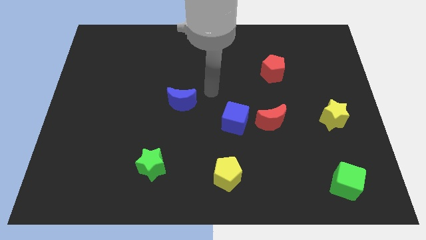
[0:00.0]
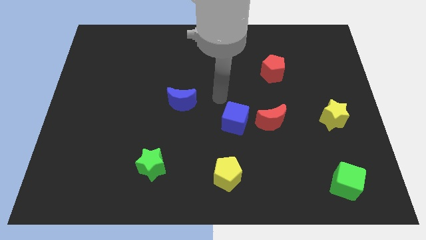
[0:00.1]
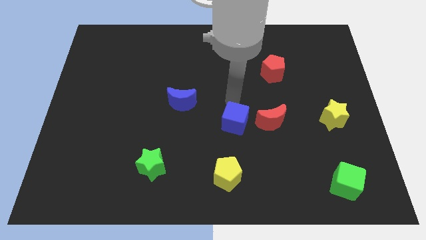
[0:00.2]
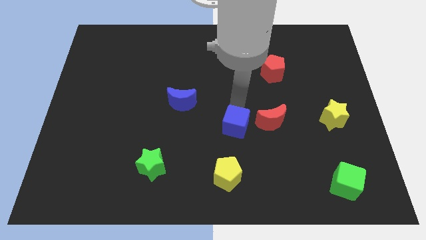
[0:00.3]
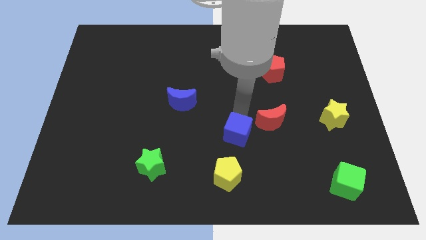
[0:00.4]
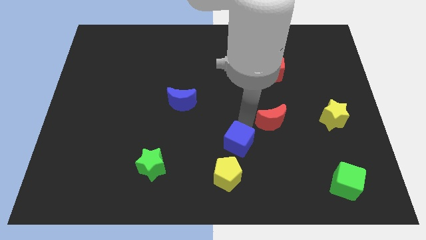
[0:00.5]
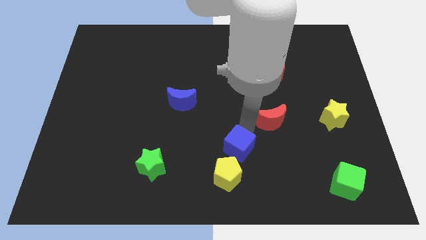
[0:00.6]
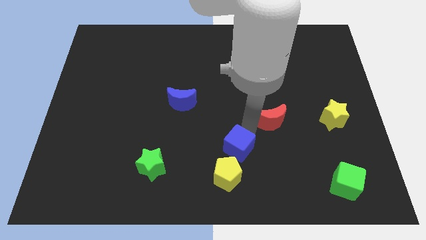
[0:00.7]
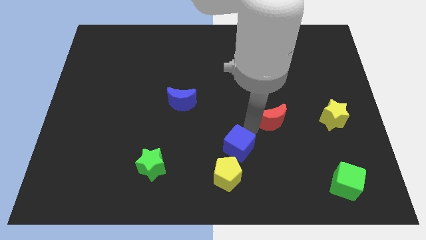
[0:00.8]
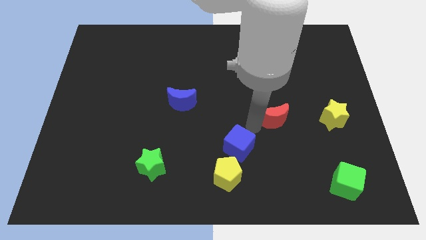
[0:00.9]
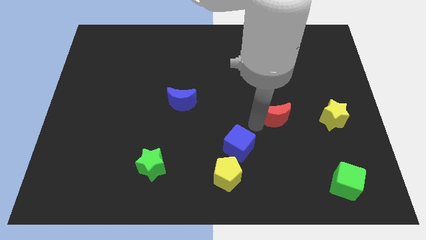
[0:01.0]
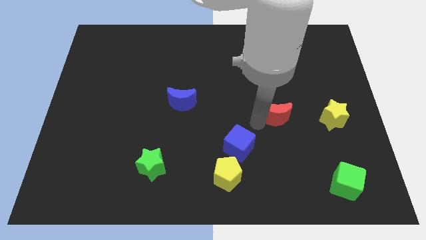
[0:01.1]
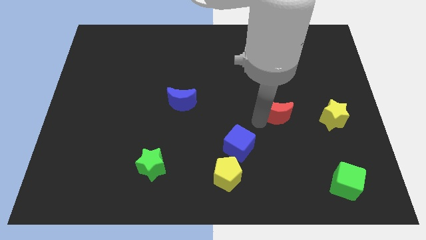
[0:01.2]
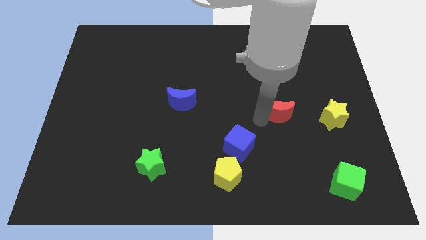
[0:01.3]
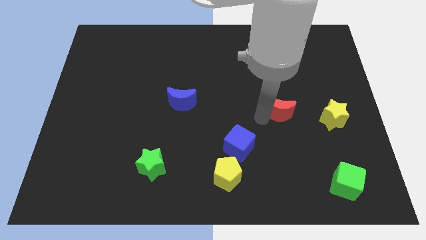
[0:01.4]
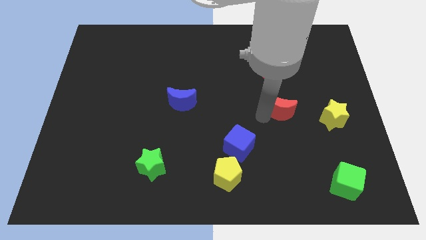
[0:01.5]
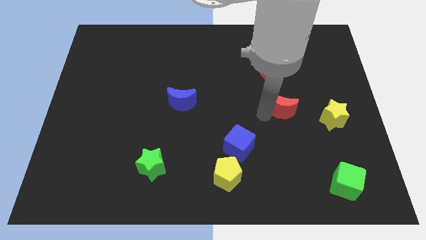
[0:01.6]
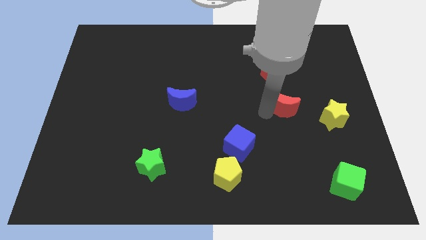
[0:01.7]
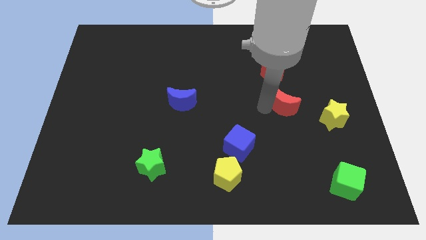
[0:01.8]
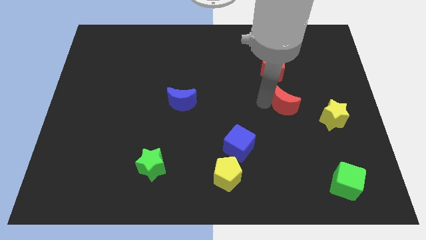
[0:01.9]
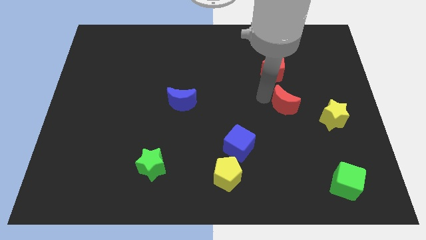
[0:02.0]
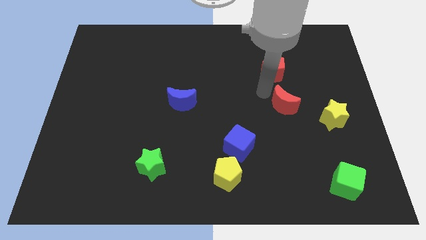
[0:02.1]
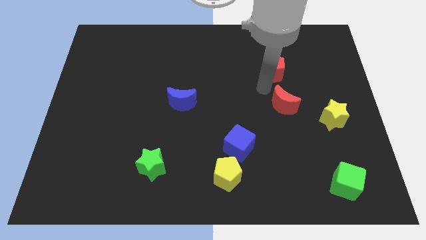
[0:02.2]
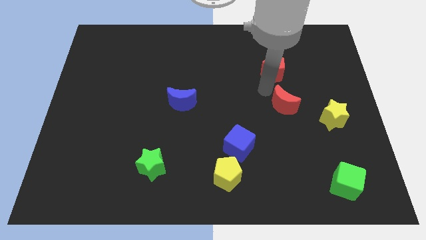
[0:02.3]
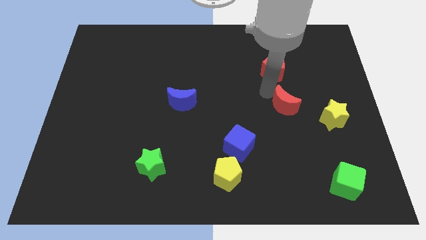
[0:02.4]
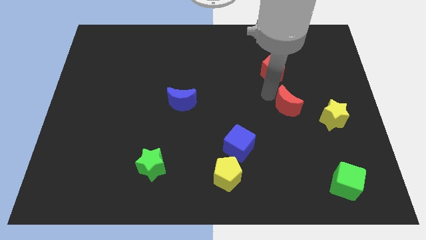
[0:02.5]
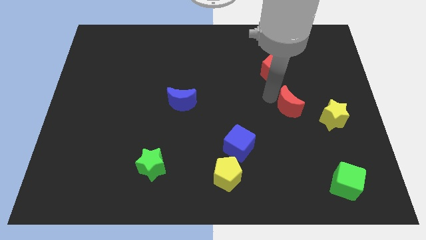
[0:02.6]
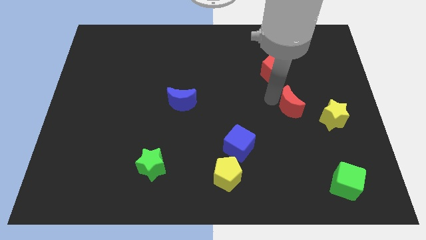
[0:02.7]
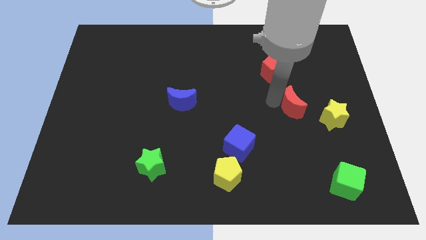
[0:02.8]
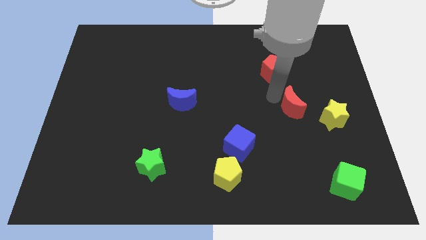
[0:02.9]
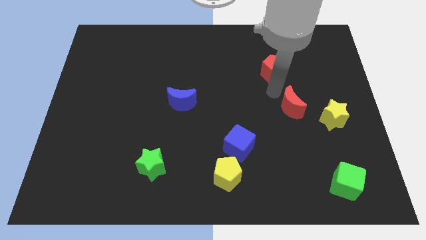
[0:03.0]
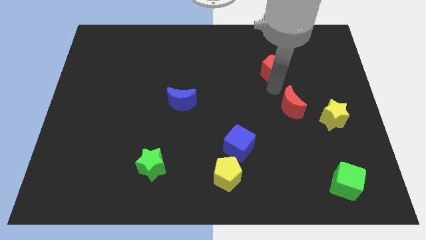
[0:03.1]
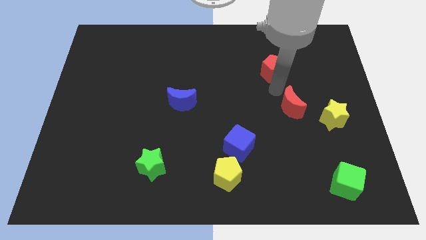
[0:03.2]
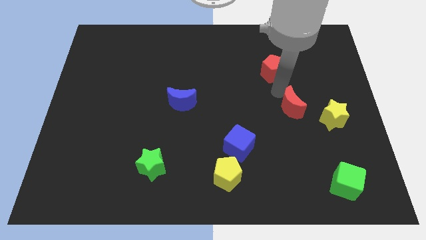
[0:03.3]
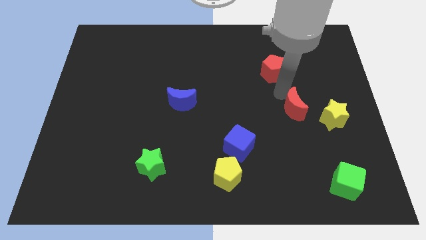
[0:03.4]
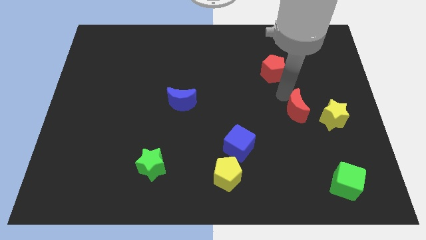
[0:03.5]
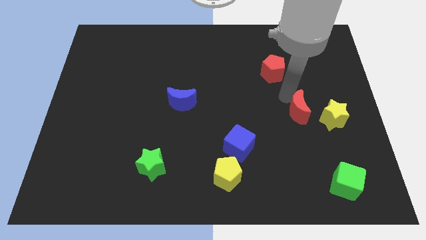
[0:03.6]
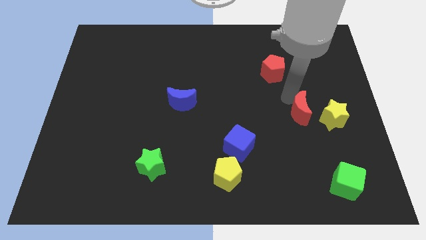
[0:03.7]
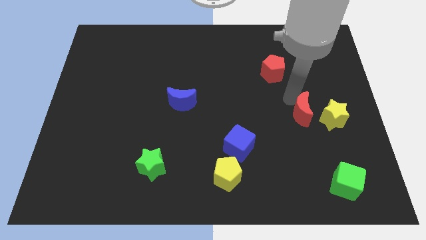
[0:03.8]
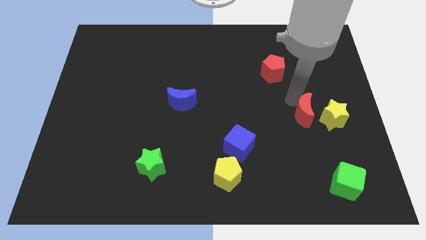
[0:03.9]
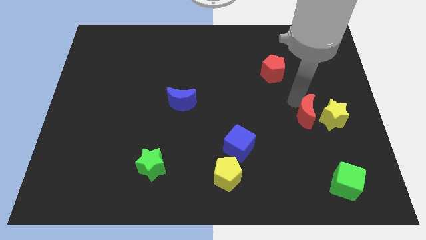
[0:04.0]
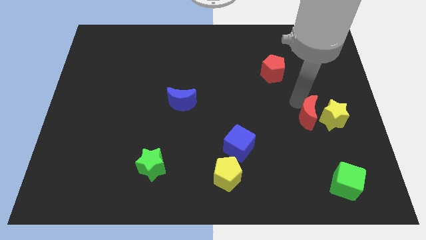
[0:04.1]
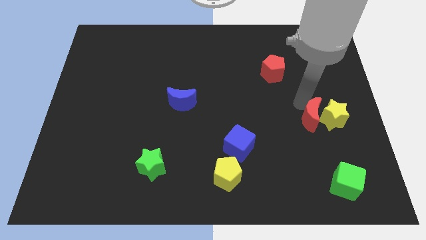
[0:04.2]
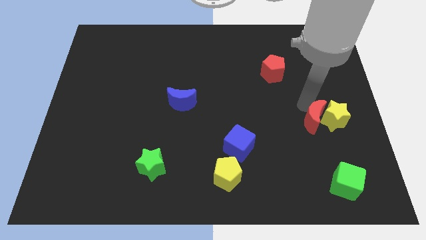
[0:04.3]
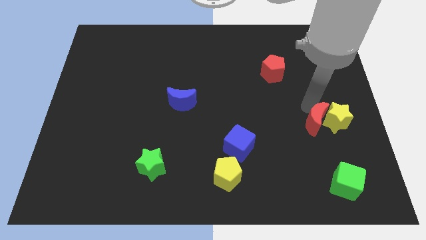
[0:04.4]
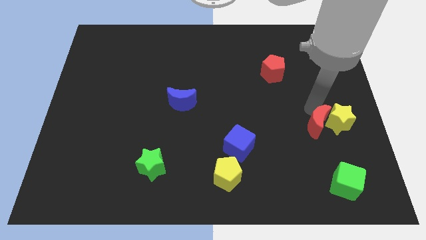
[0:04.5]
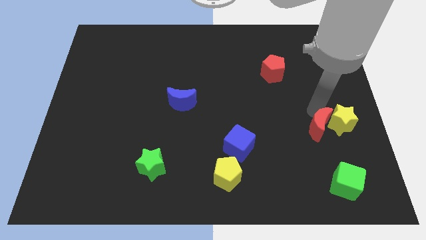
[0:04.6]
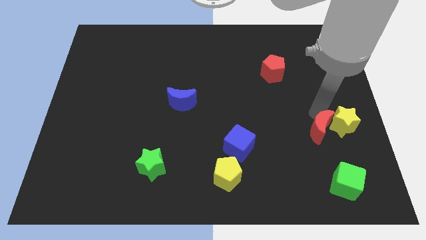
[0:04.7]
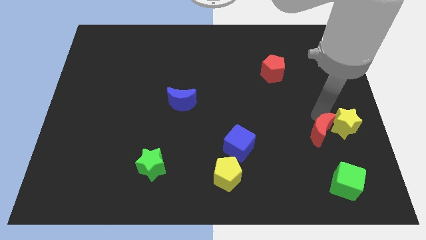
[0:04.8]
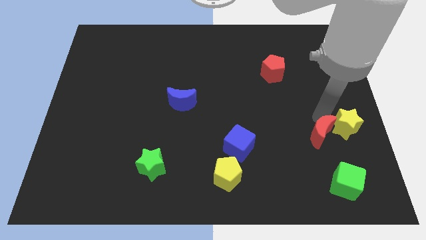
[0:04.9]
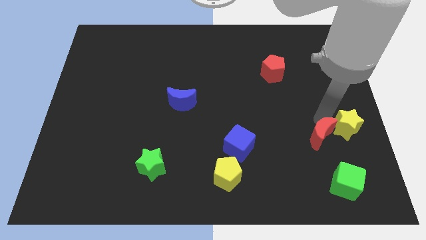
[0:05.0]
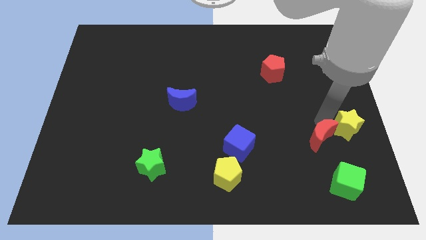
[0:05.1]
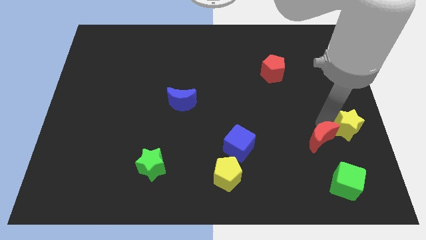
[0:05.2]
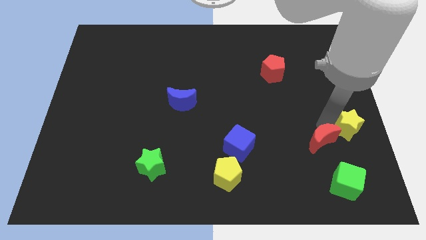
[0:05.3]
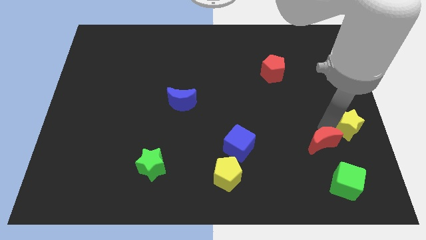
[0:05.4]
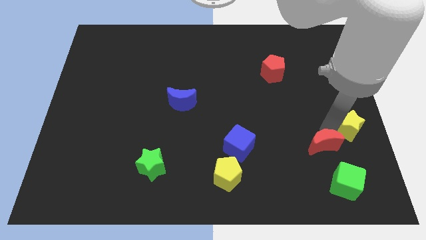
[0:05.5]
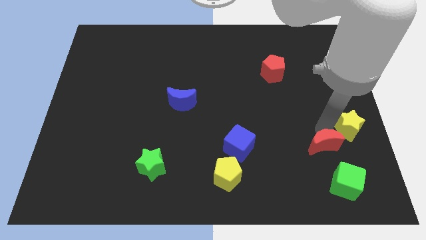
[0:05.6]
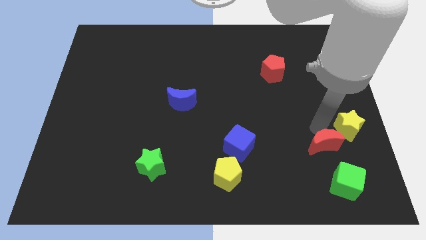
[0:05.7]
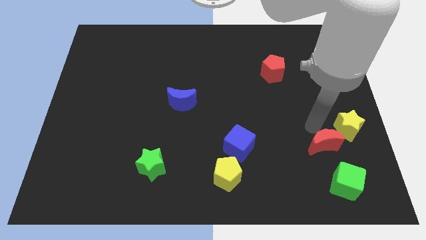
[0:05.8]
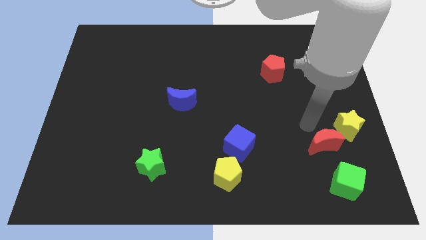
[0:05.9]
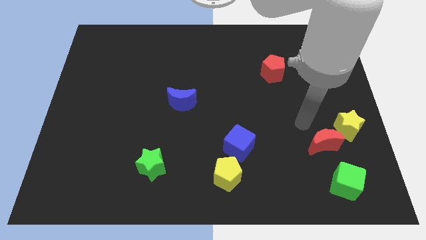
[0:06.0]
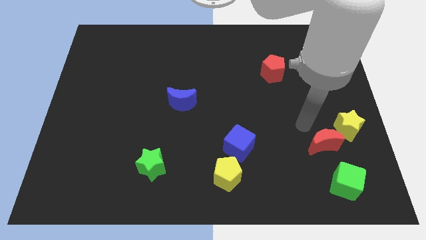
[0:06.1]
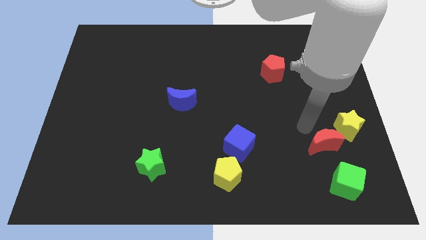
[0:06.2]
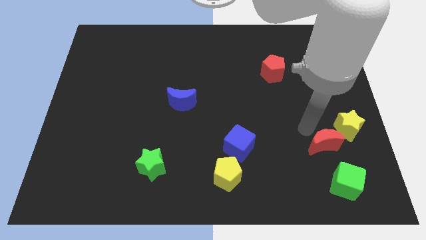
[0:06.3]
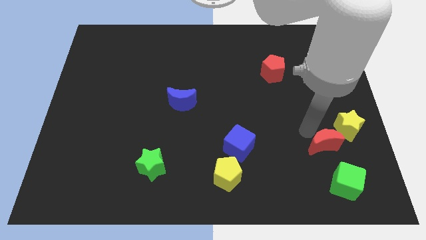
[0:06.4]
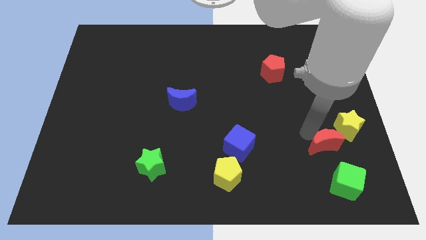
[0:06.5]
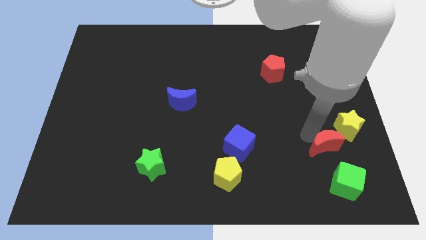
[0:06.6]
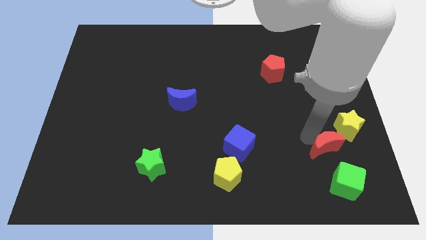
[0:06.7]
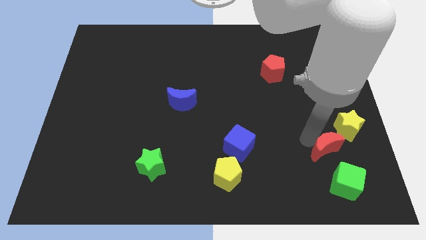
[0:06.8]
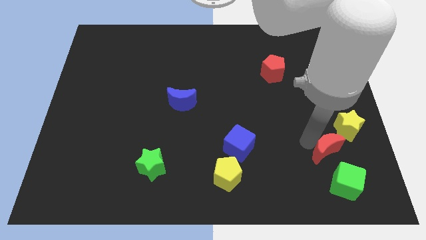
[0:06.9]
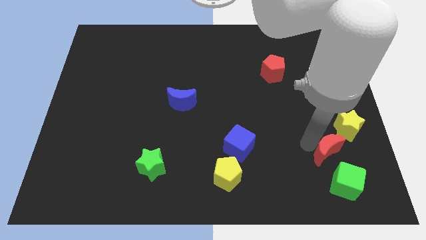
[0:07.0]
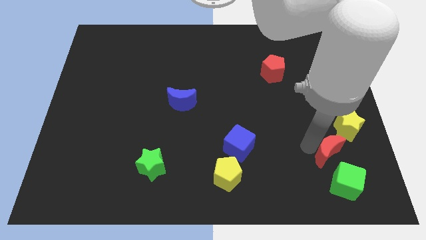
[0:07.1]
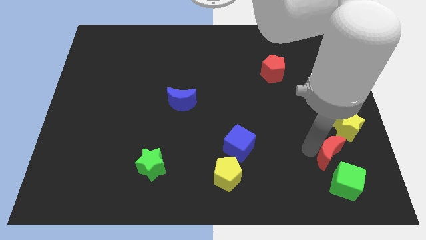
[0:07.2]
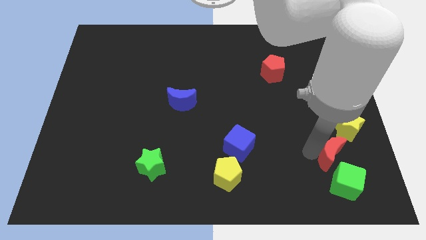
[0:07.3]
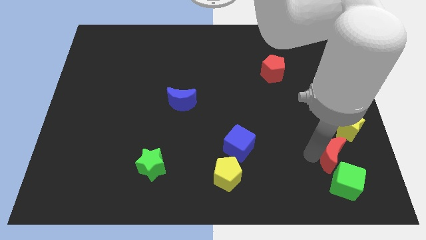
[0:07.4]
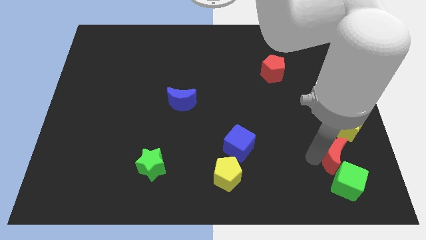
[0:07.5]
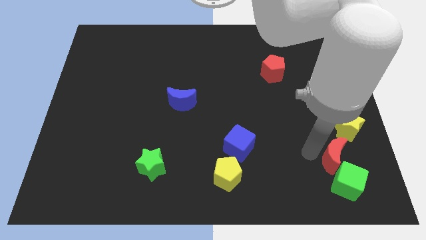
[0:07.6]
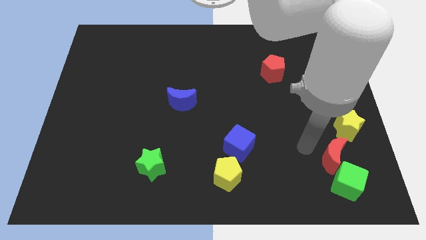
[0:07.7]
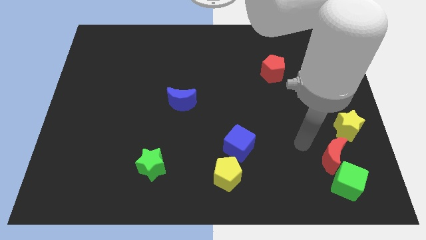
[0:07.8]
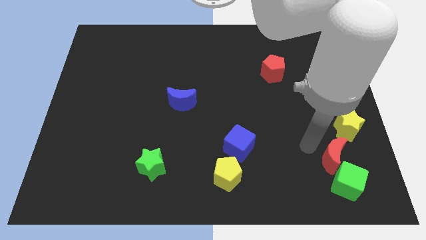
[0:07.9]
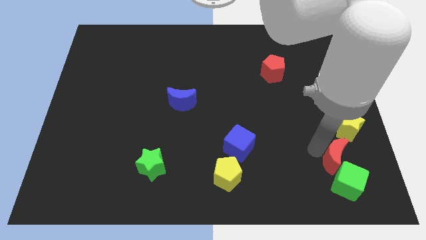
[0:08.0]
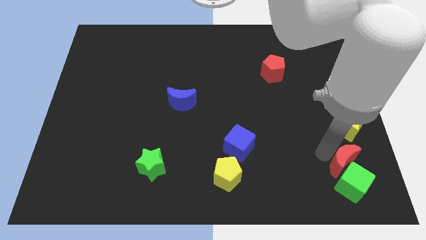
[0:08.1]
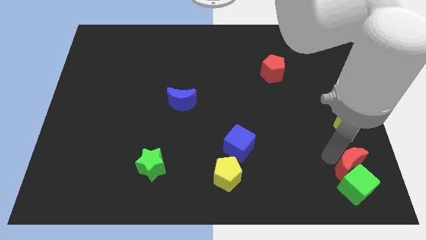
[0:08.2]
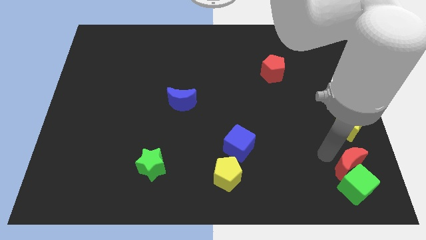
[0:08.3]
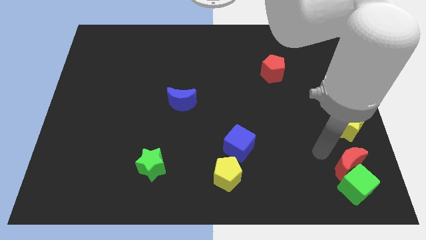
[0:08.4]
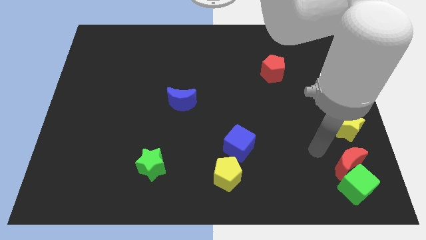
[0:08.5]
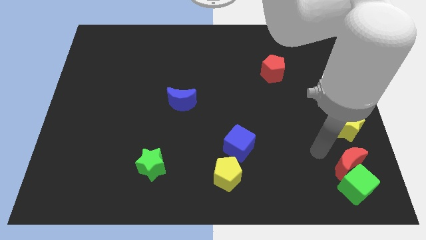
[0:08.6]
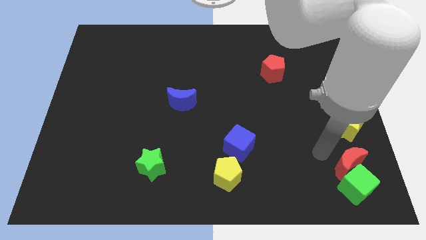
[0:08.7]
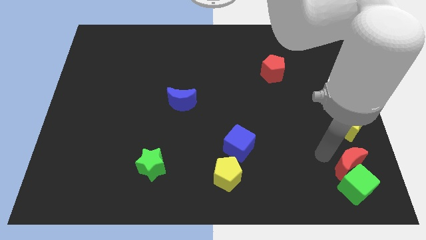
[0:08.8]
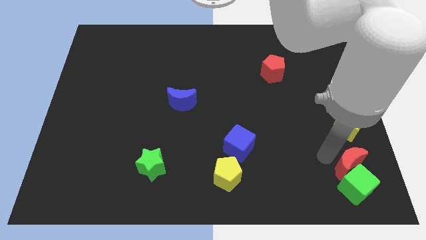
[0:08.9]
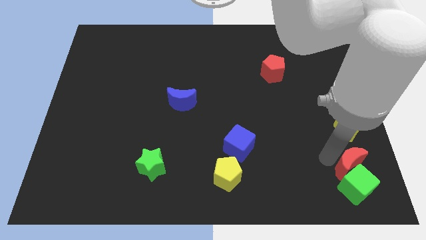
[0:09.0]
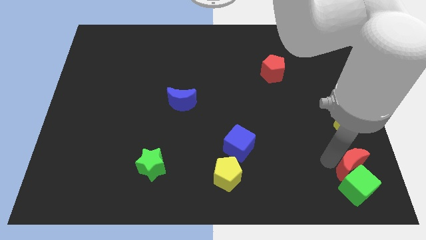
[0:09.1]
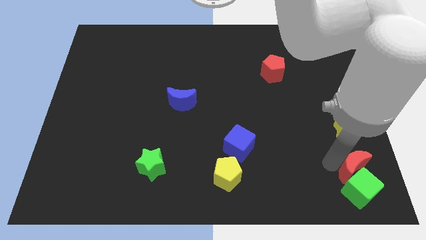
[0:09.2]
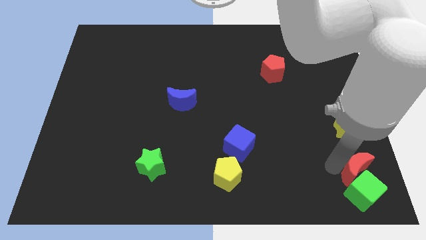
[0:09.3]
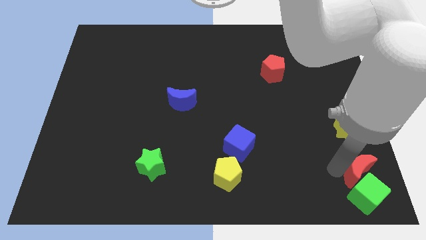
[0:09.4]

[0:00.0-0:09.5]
move the red moon to the bottom right of the board
